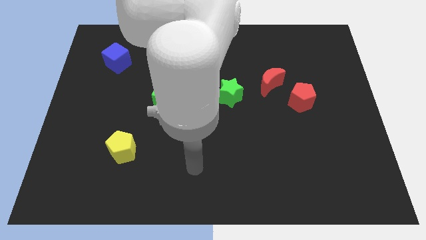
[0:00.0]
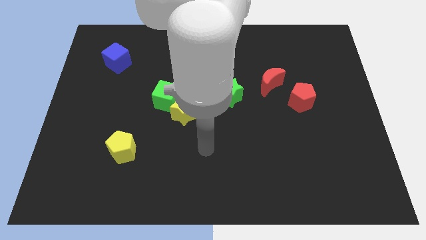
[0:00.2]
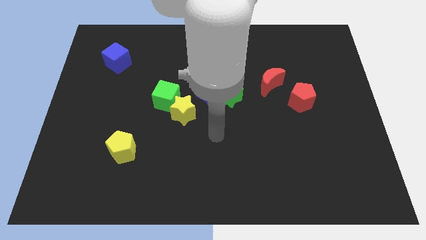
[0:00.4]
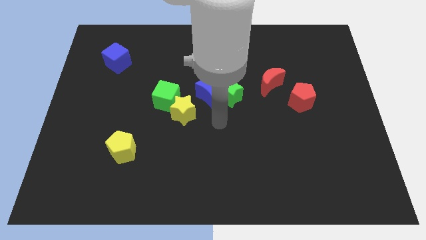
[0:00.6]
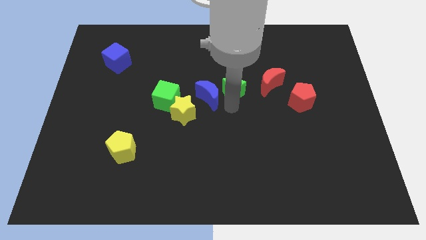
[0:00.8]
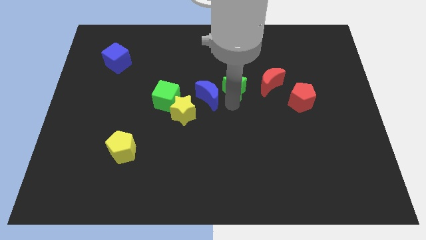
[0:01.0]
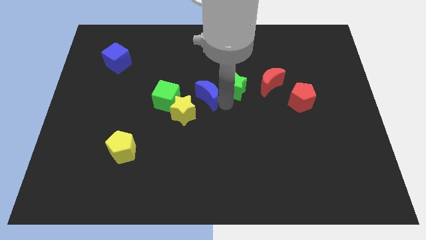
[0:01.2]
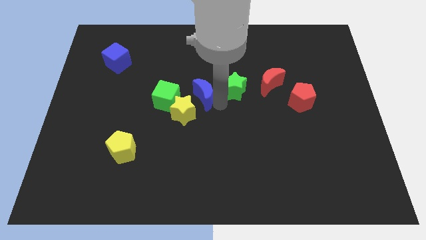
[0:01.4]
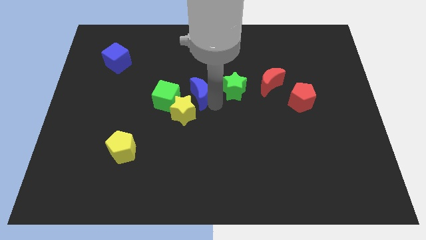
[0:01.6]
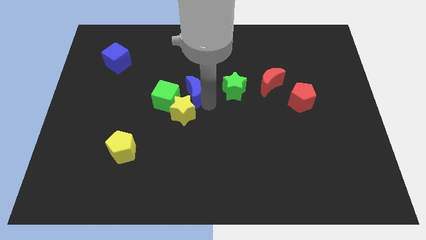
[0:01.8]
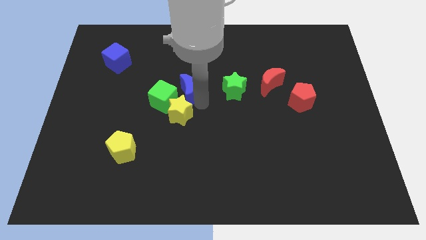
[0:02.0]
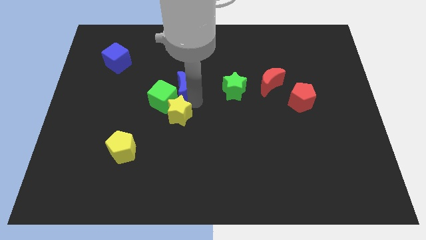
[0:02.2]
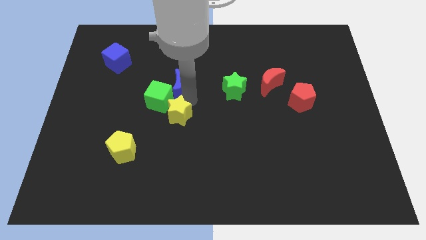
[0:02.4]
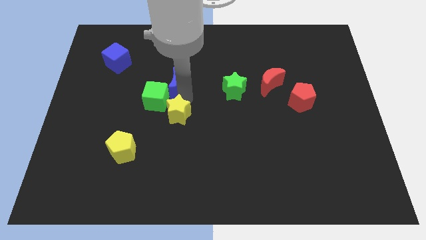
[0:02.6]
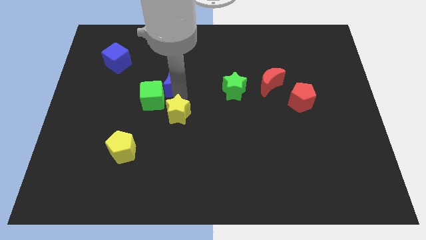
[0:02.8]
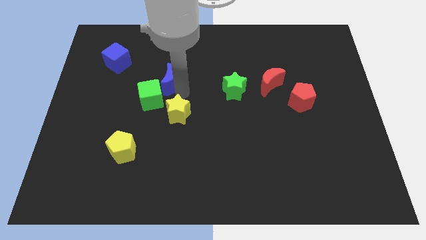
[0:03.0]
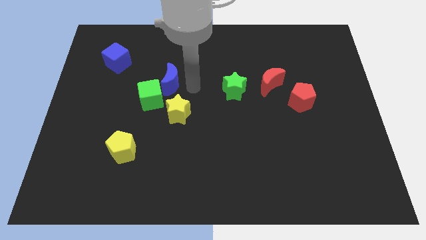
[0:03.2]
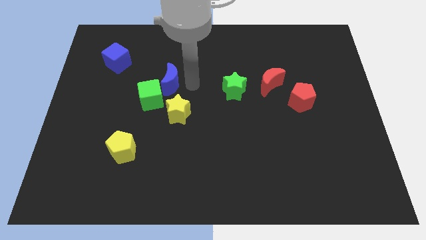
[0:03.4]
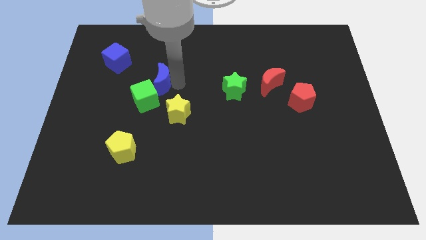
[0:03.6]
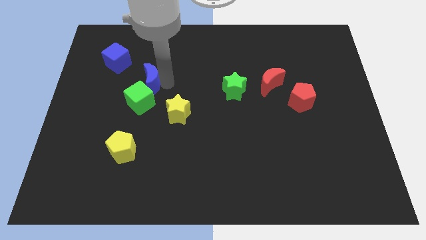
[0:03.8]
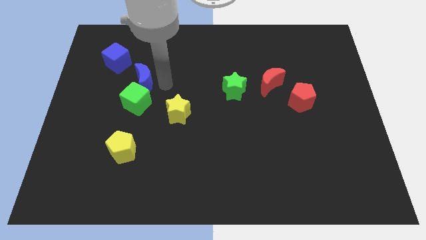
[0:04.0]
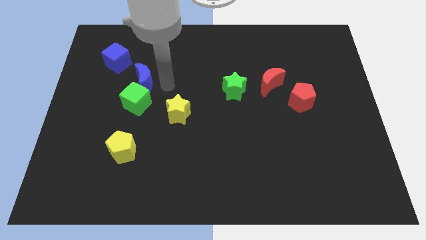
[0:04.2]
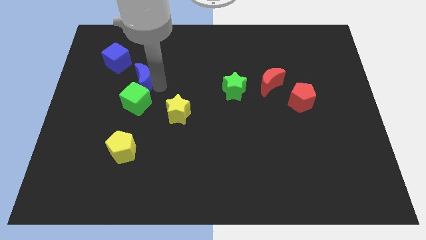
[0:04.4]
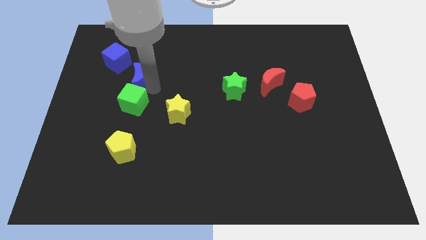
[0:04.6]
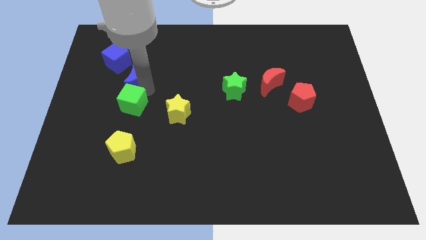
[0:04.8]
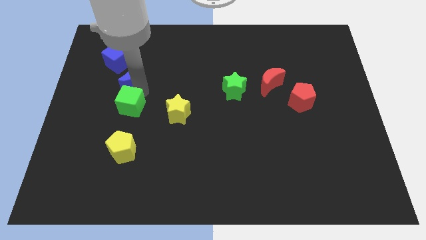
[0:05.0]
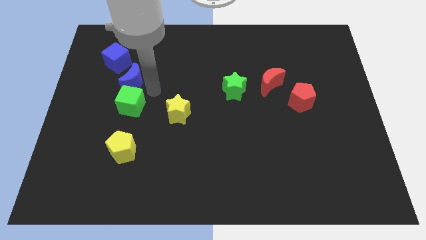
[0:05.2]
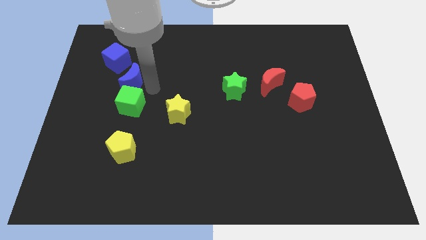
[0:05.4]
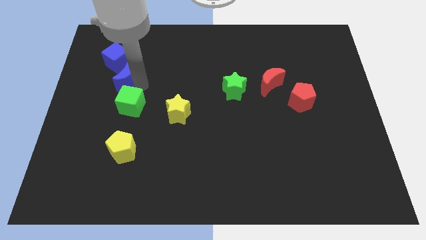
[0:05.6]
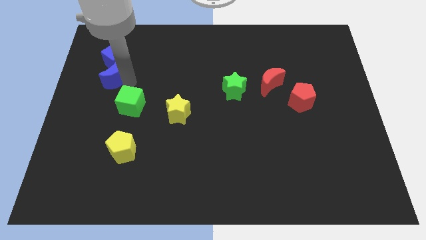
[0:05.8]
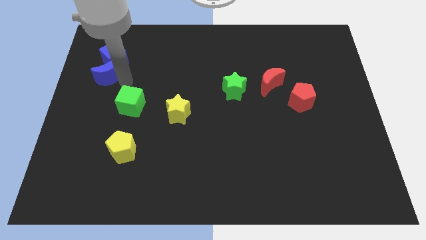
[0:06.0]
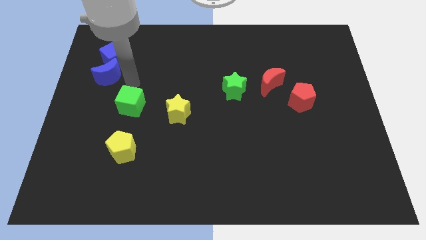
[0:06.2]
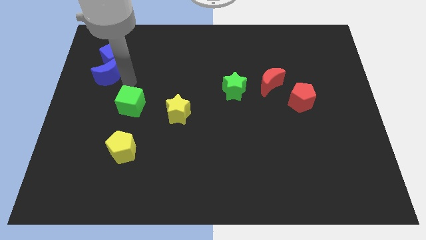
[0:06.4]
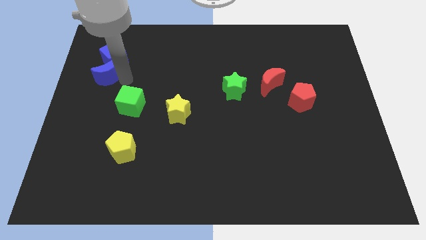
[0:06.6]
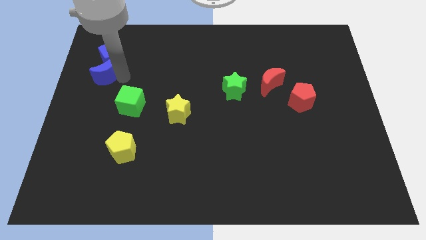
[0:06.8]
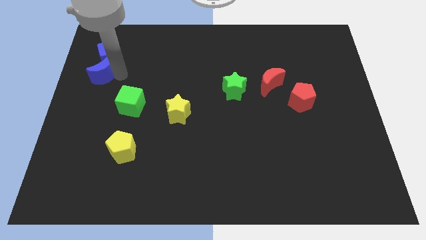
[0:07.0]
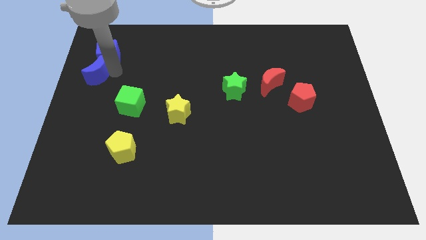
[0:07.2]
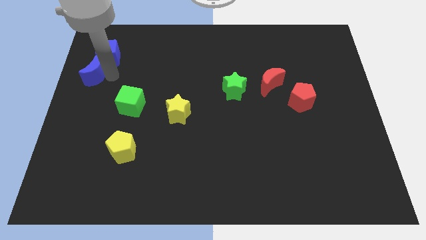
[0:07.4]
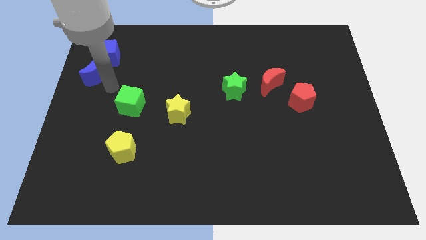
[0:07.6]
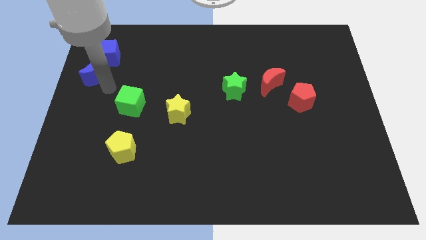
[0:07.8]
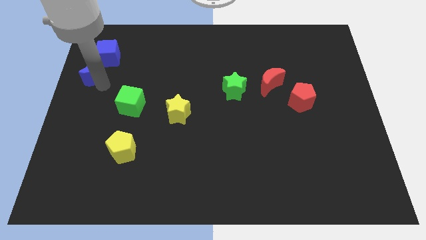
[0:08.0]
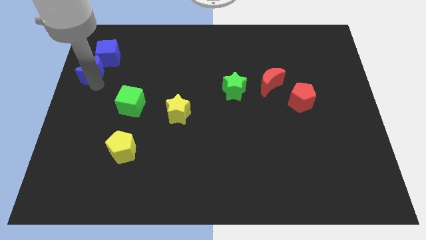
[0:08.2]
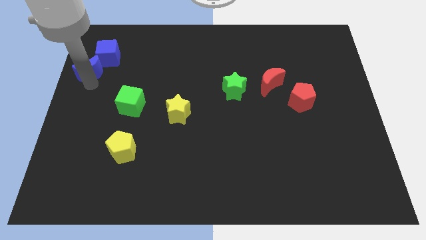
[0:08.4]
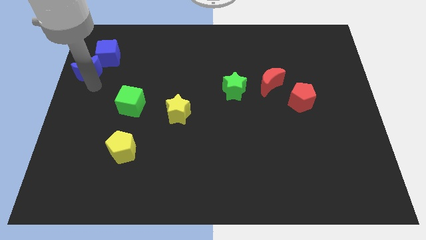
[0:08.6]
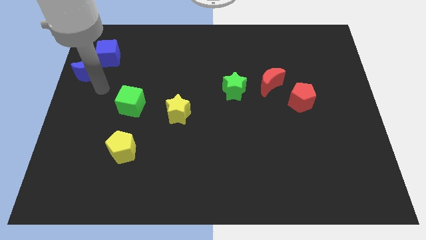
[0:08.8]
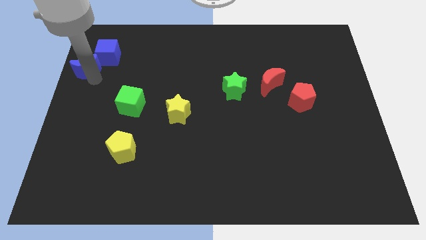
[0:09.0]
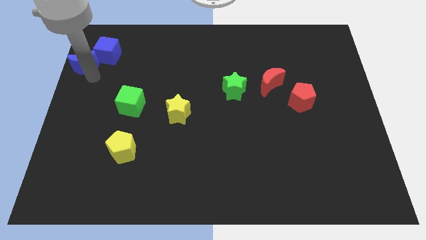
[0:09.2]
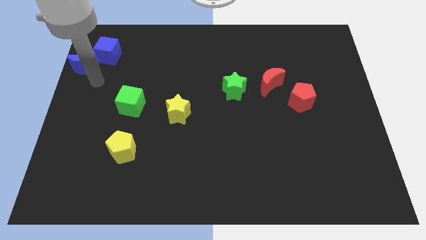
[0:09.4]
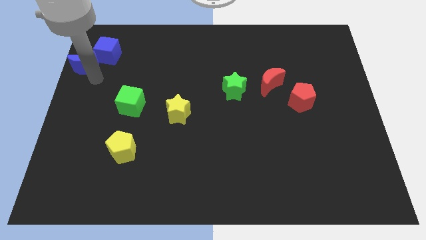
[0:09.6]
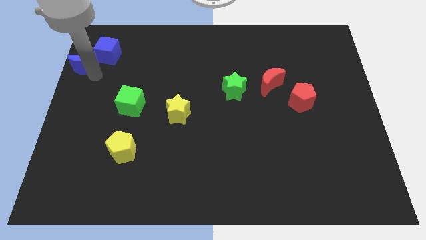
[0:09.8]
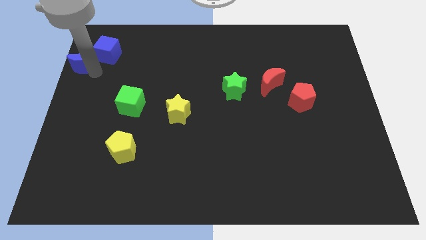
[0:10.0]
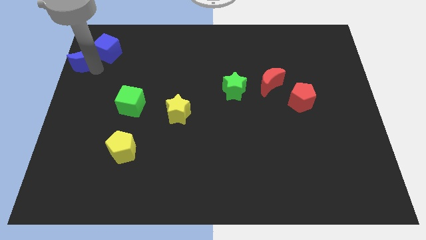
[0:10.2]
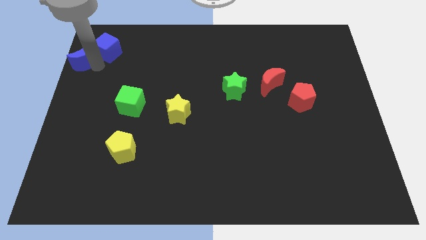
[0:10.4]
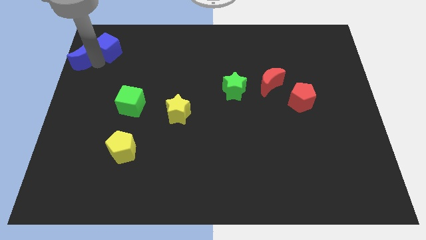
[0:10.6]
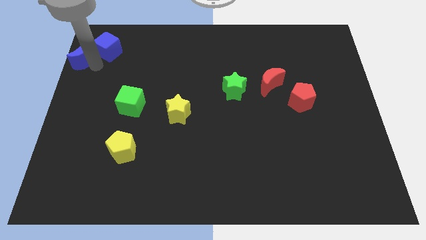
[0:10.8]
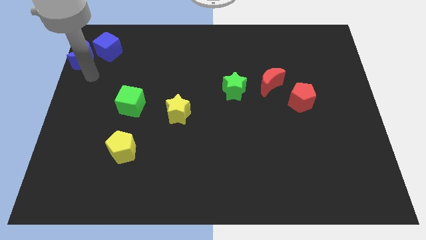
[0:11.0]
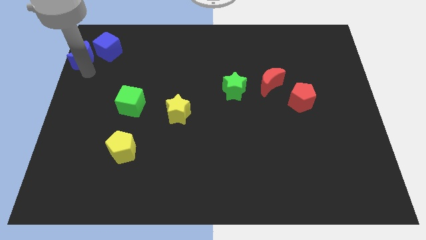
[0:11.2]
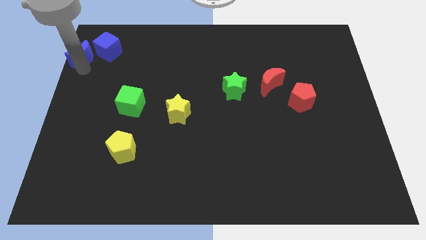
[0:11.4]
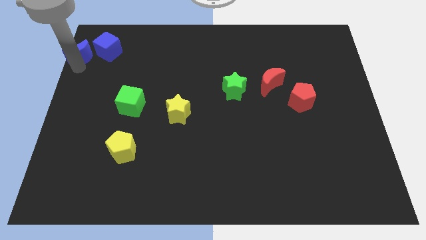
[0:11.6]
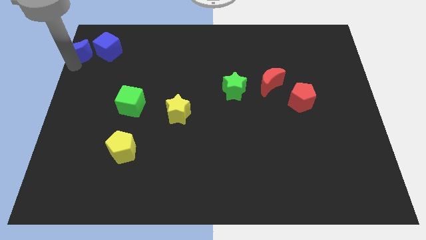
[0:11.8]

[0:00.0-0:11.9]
push the blue moon to the upper left corner

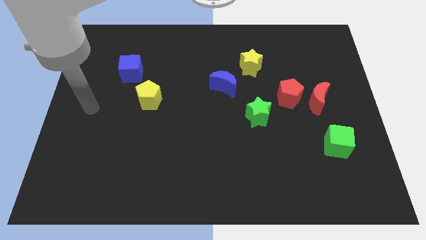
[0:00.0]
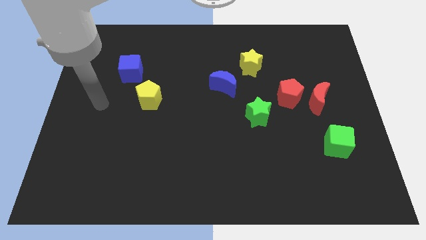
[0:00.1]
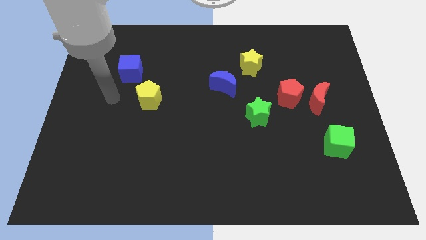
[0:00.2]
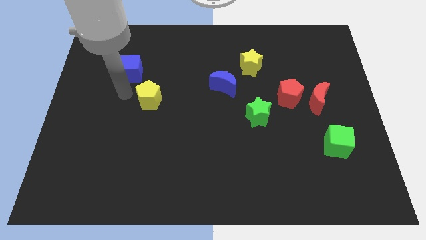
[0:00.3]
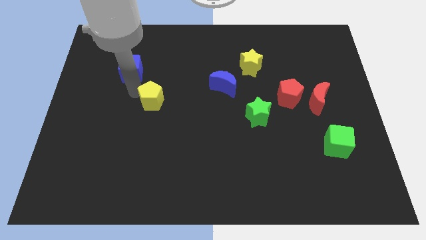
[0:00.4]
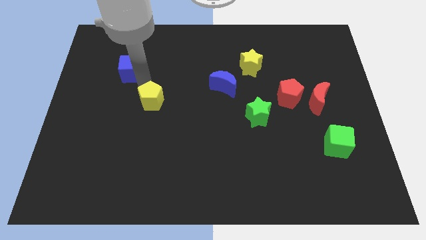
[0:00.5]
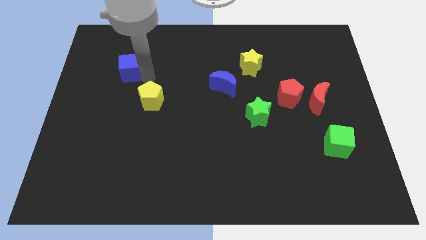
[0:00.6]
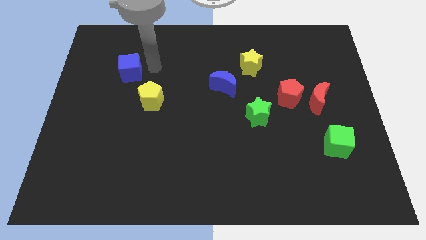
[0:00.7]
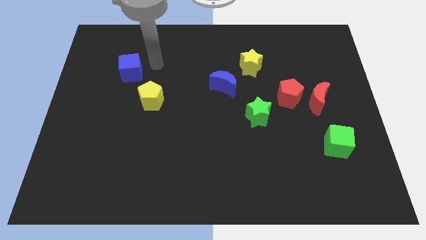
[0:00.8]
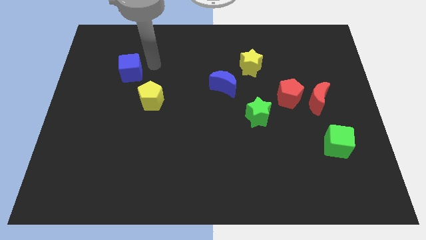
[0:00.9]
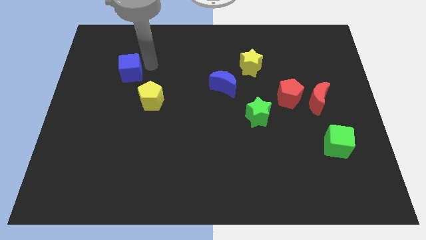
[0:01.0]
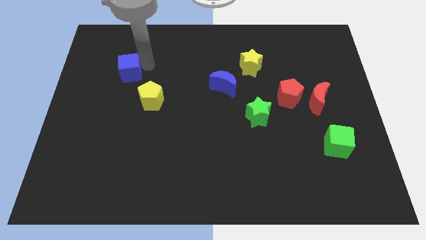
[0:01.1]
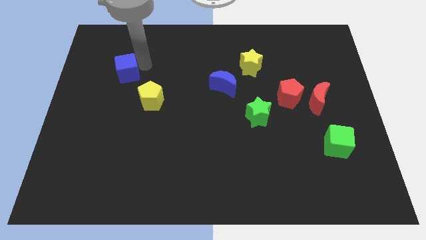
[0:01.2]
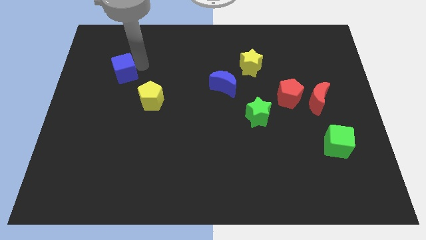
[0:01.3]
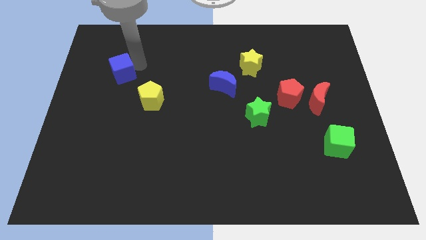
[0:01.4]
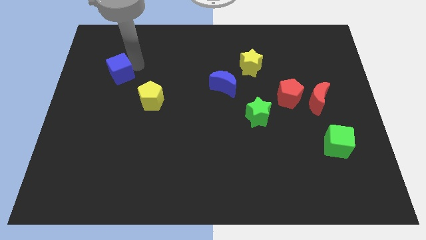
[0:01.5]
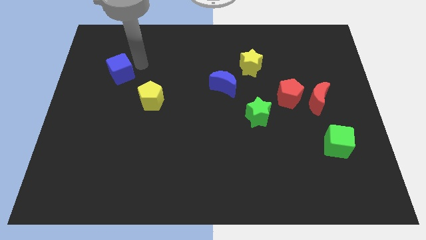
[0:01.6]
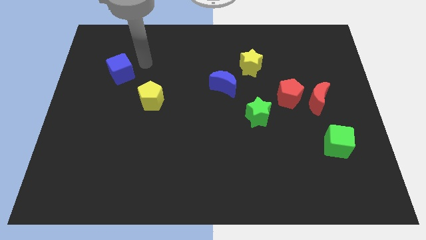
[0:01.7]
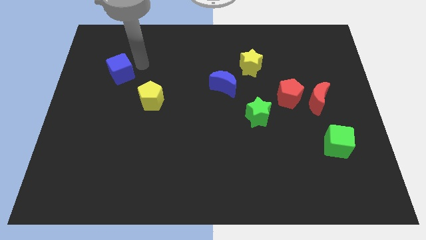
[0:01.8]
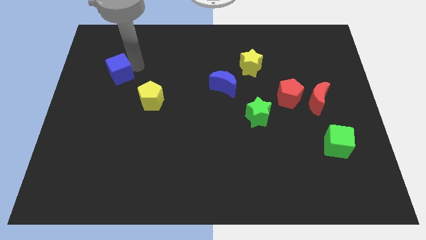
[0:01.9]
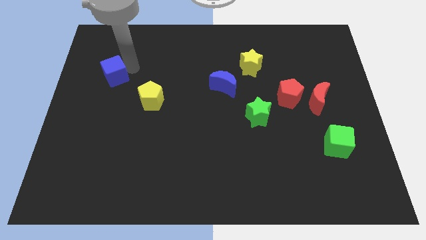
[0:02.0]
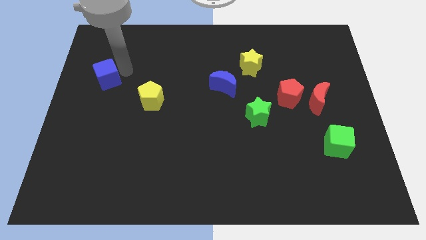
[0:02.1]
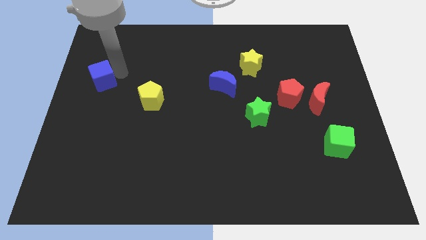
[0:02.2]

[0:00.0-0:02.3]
move the blue cube to the center left
